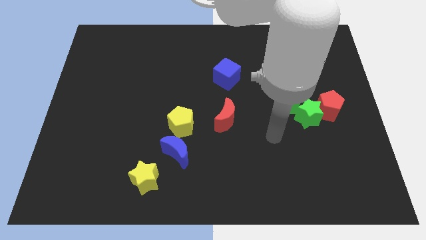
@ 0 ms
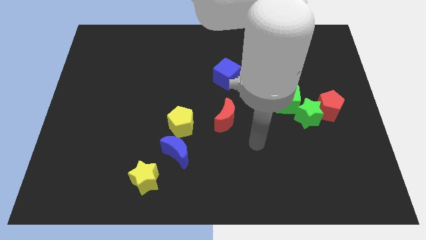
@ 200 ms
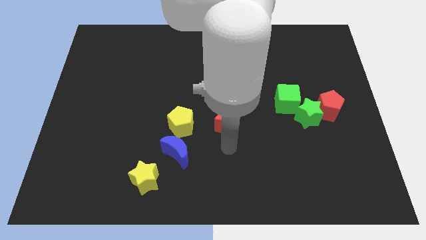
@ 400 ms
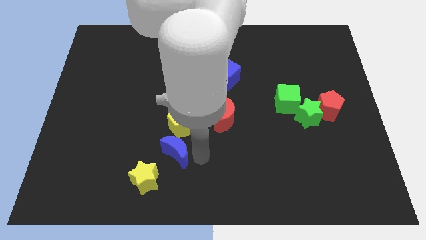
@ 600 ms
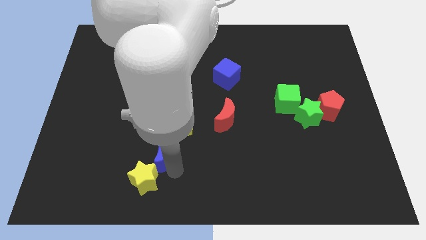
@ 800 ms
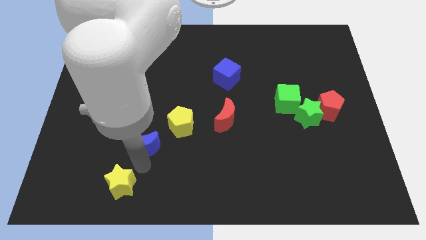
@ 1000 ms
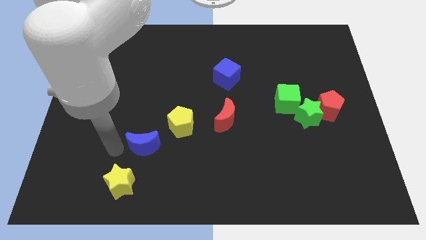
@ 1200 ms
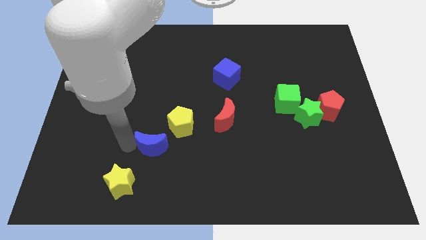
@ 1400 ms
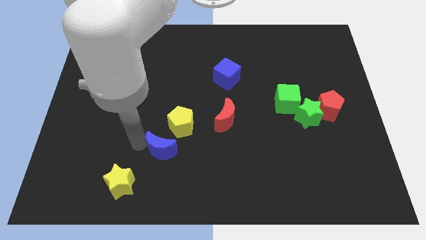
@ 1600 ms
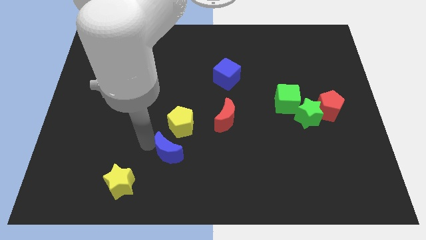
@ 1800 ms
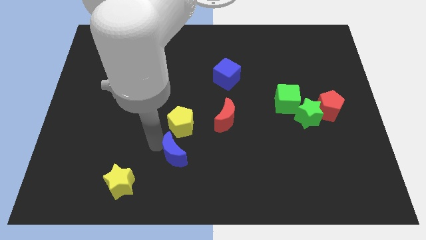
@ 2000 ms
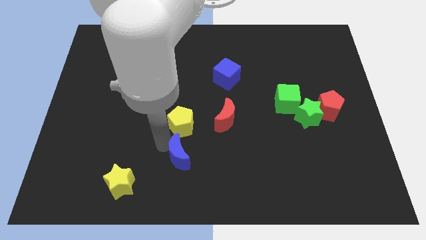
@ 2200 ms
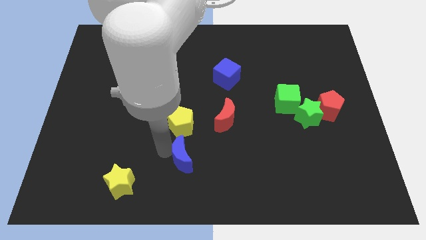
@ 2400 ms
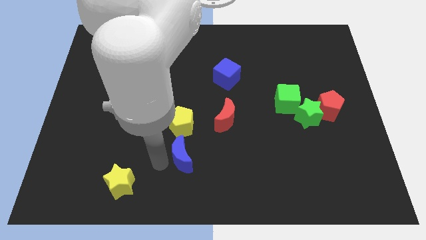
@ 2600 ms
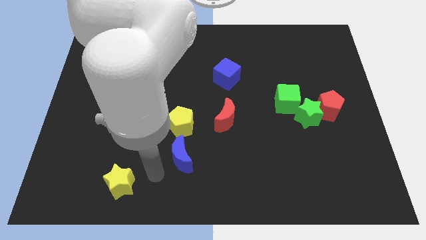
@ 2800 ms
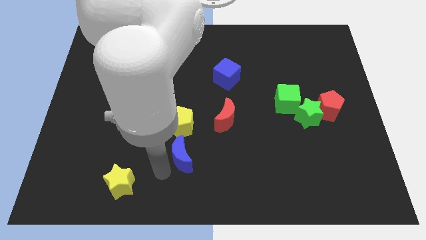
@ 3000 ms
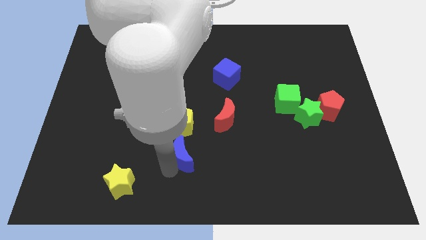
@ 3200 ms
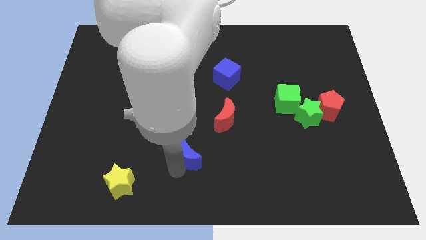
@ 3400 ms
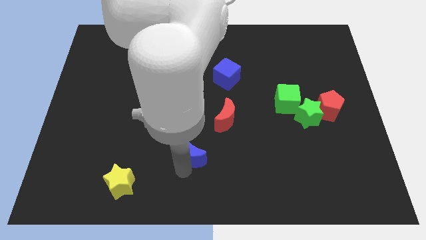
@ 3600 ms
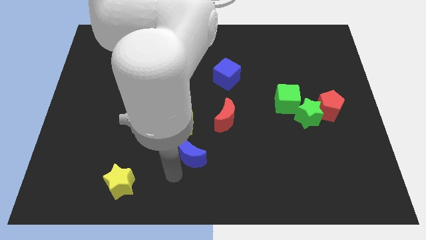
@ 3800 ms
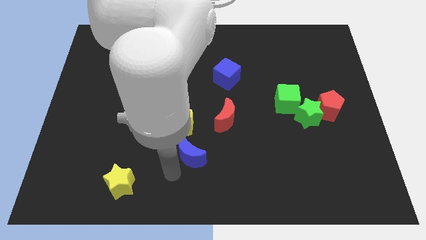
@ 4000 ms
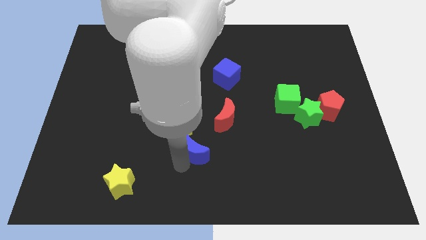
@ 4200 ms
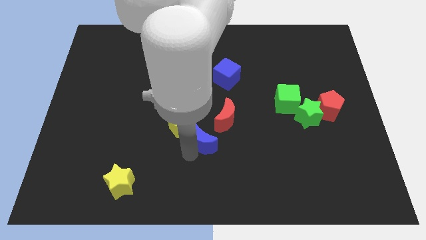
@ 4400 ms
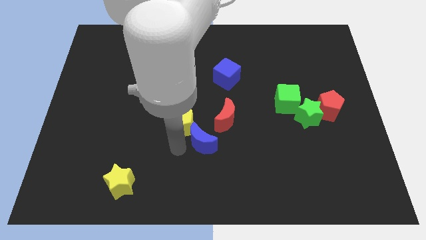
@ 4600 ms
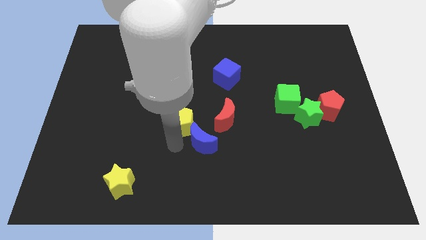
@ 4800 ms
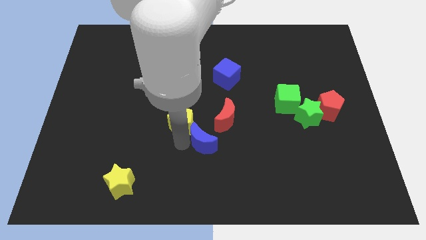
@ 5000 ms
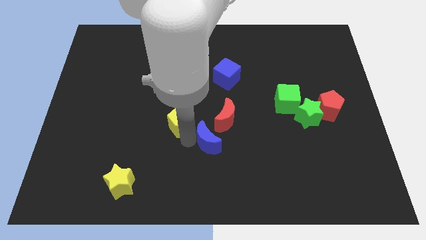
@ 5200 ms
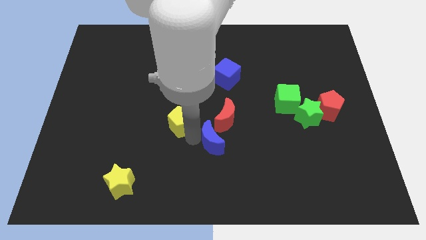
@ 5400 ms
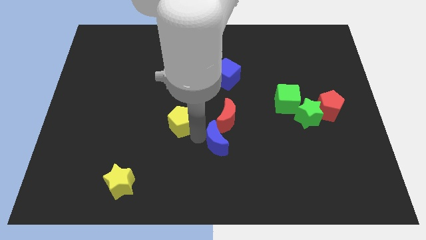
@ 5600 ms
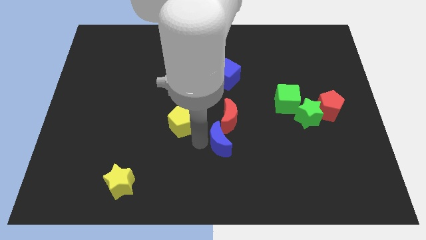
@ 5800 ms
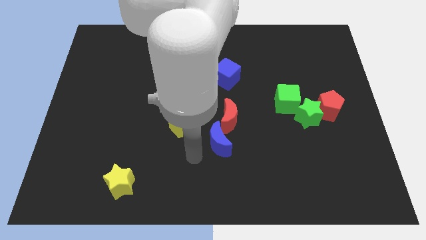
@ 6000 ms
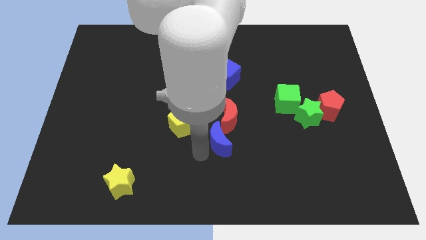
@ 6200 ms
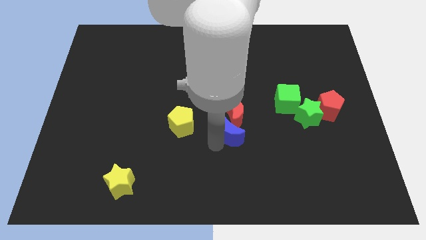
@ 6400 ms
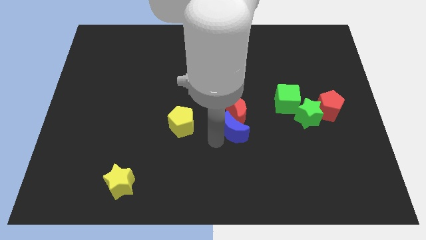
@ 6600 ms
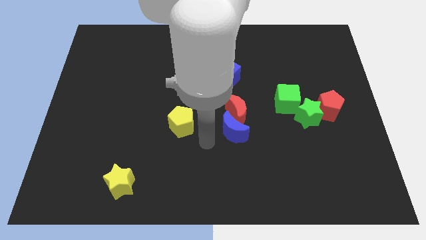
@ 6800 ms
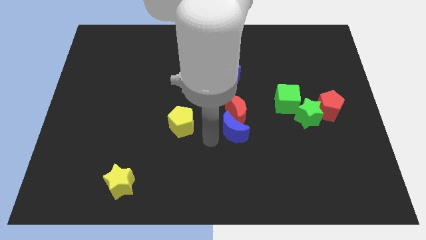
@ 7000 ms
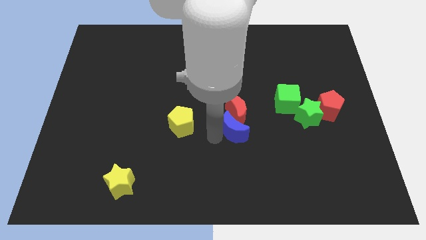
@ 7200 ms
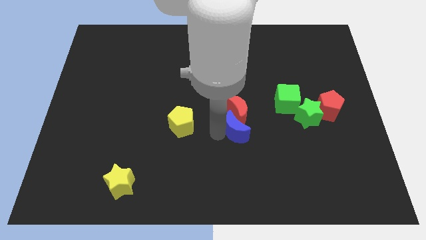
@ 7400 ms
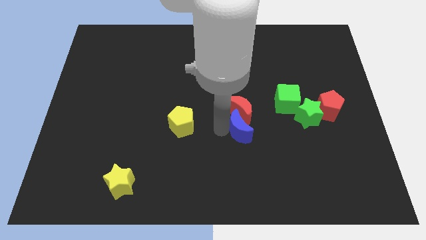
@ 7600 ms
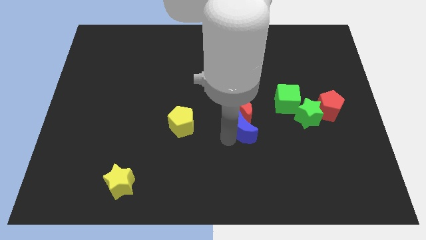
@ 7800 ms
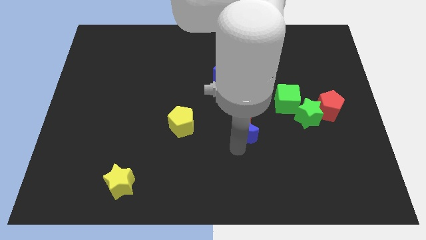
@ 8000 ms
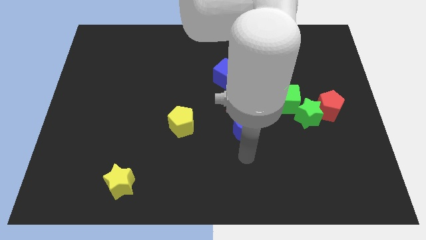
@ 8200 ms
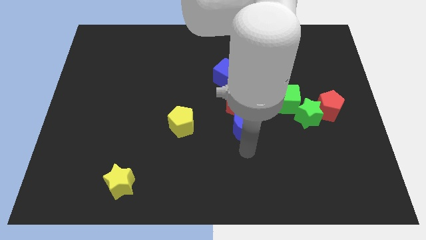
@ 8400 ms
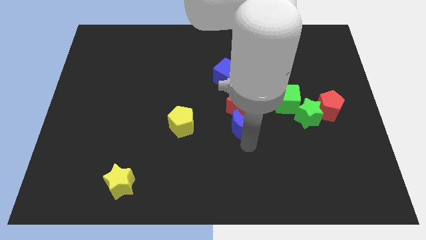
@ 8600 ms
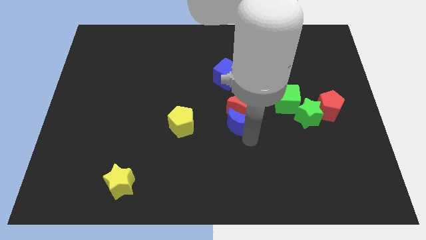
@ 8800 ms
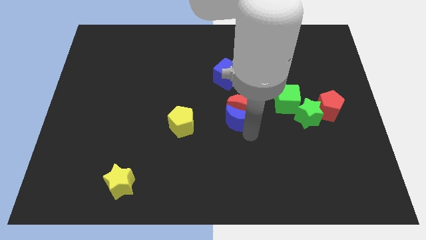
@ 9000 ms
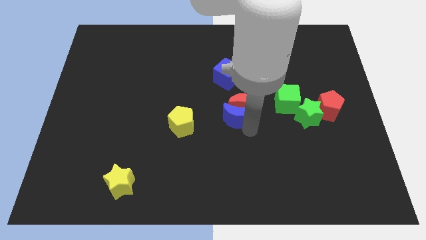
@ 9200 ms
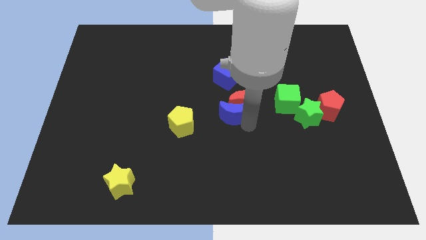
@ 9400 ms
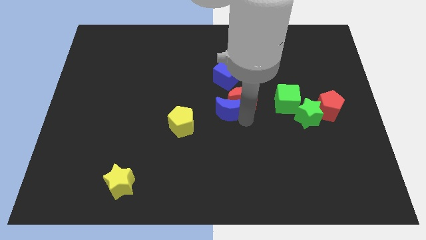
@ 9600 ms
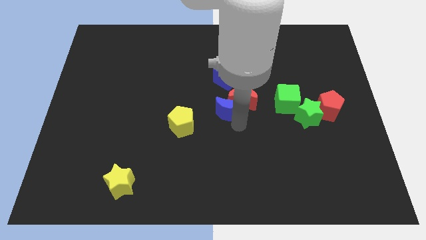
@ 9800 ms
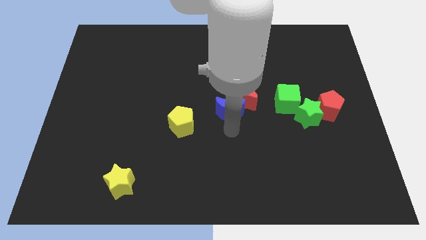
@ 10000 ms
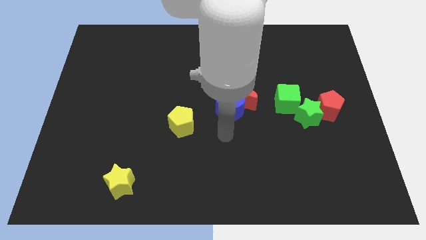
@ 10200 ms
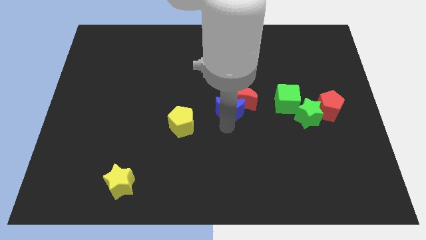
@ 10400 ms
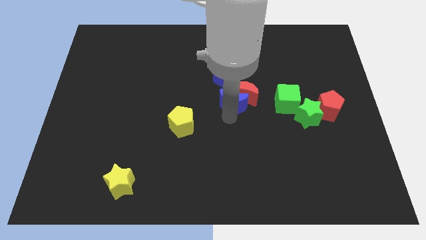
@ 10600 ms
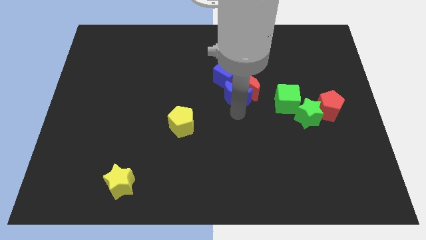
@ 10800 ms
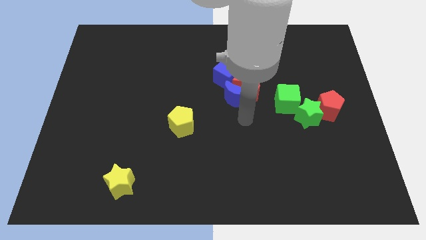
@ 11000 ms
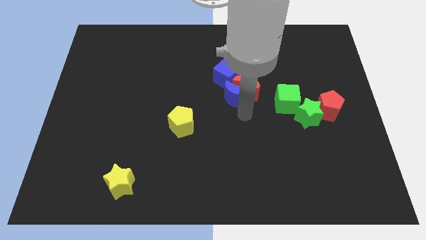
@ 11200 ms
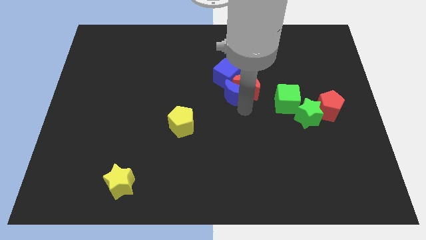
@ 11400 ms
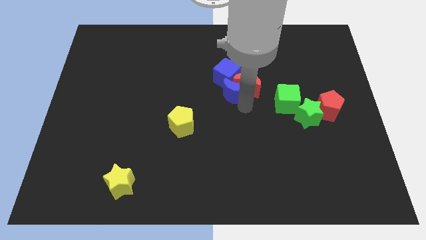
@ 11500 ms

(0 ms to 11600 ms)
move the blue moon to the blue cube

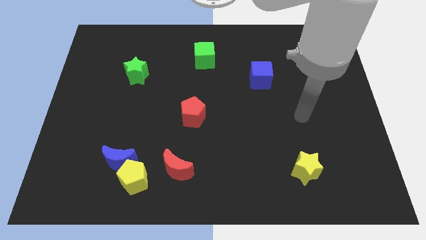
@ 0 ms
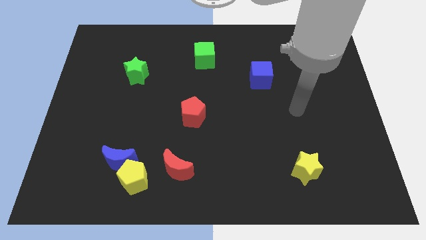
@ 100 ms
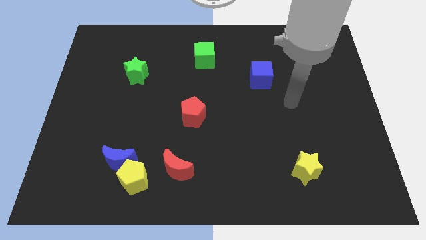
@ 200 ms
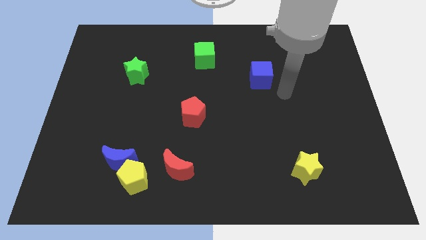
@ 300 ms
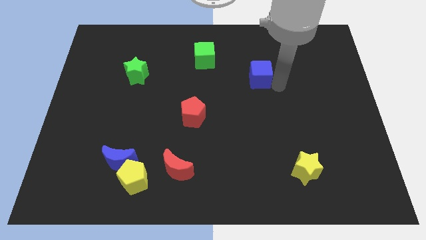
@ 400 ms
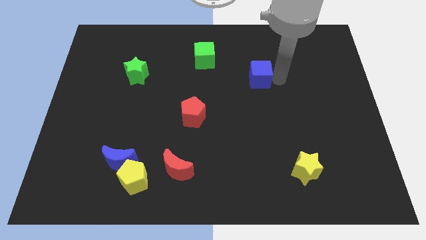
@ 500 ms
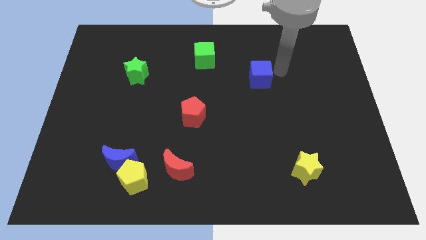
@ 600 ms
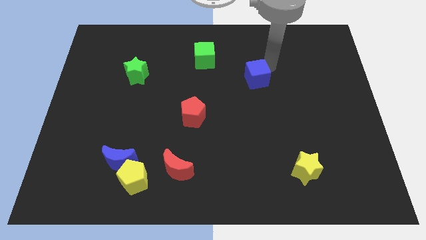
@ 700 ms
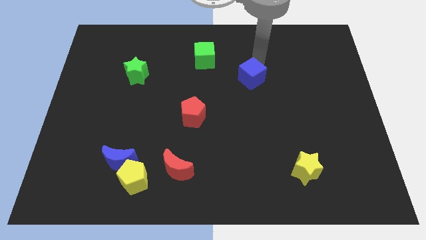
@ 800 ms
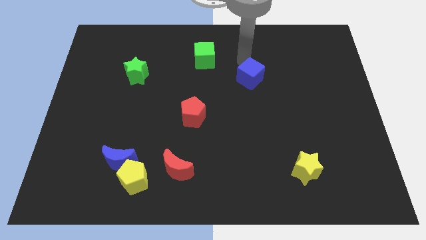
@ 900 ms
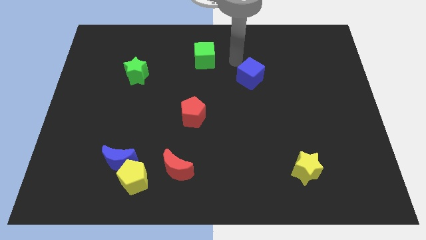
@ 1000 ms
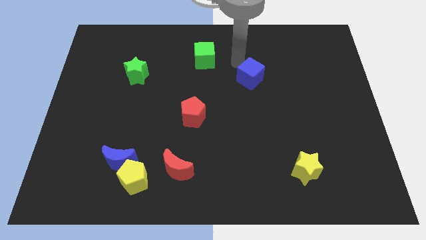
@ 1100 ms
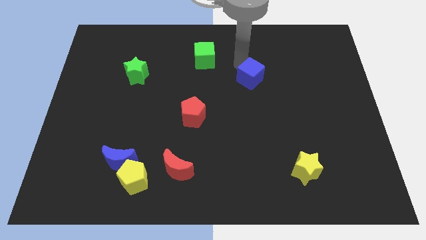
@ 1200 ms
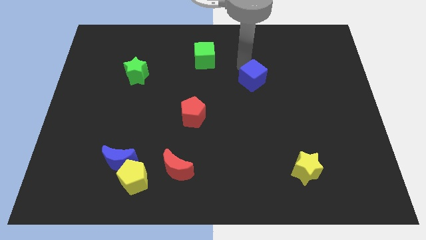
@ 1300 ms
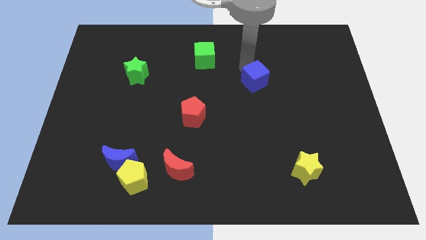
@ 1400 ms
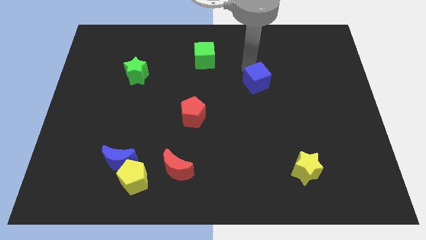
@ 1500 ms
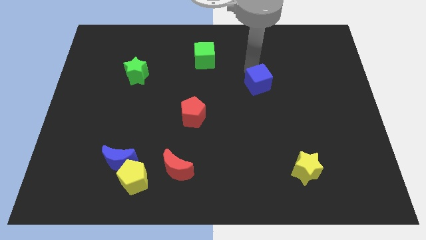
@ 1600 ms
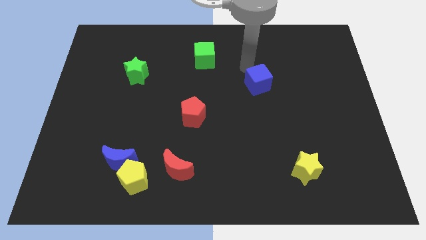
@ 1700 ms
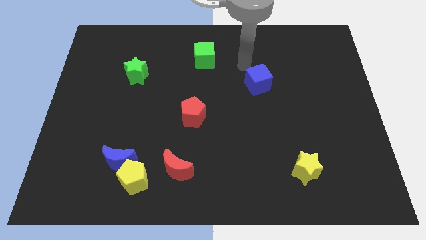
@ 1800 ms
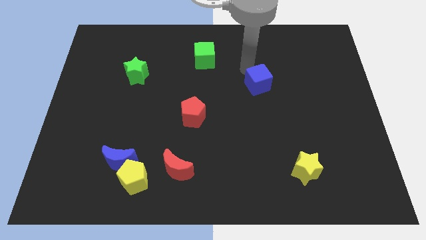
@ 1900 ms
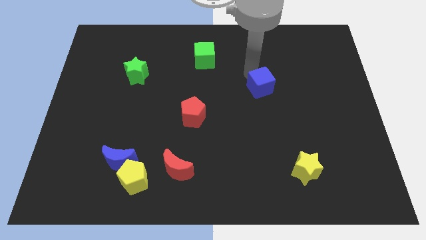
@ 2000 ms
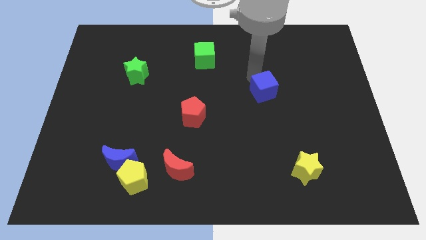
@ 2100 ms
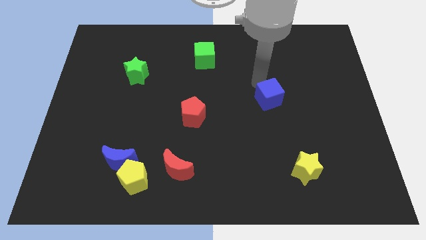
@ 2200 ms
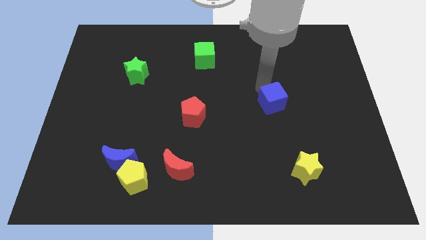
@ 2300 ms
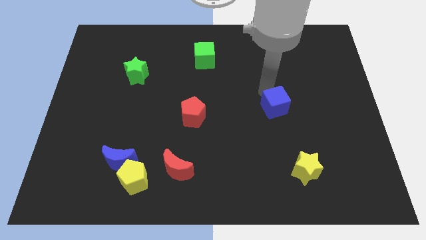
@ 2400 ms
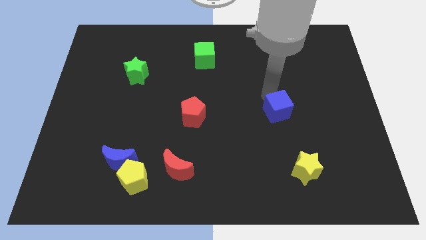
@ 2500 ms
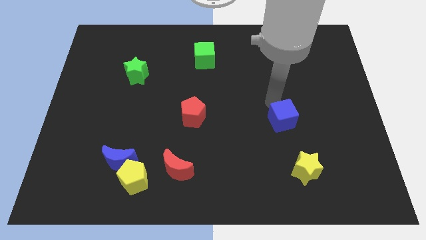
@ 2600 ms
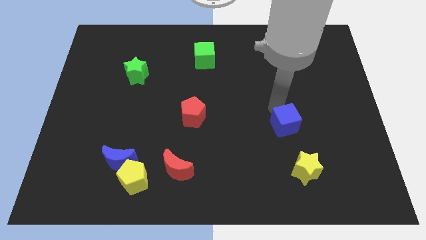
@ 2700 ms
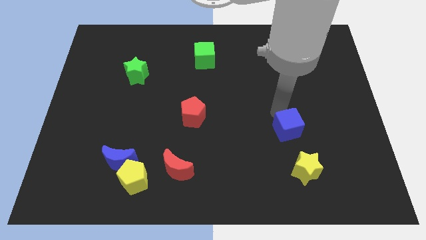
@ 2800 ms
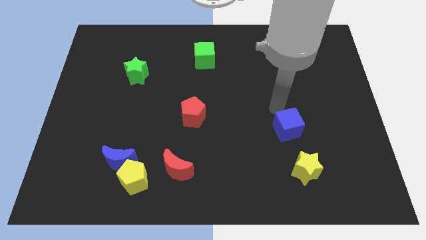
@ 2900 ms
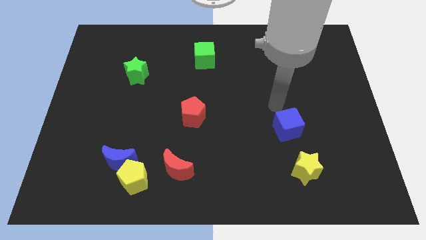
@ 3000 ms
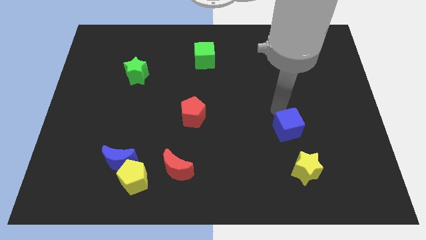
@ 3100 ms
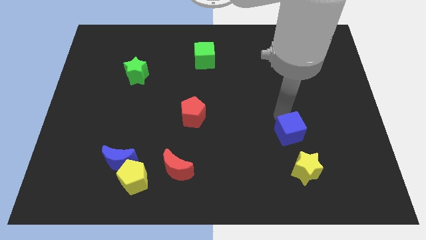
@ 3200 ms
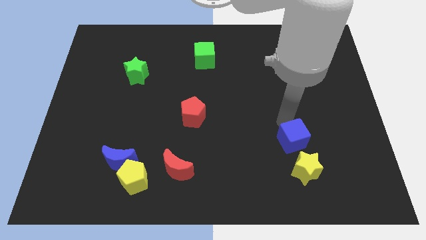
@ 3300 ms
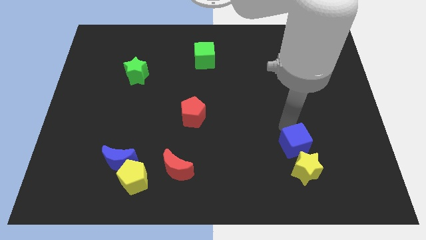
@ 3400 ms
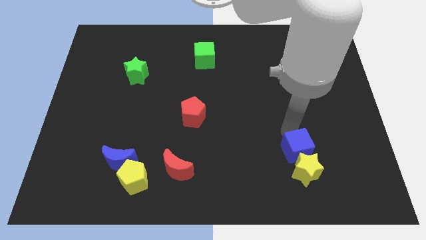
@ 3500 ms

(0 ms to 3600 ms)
move the blue cube towards the yellow star
